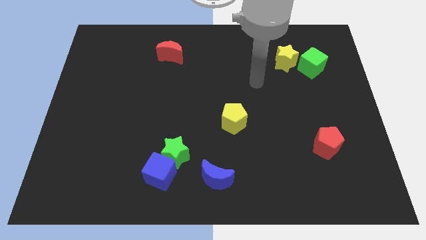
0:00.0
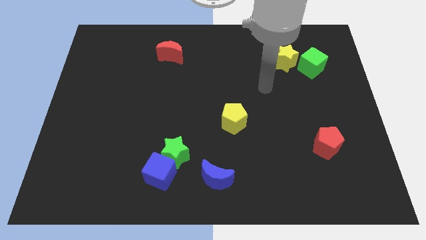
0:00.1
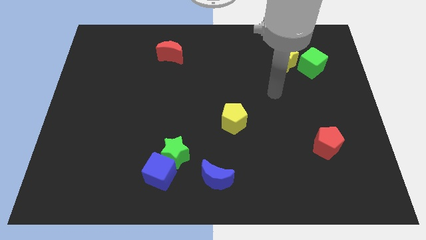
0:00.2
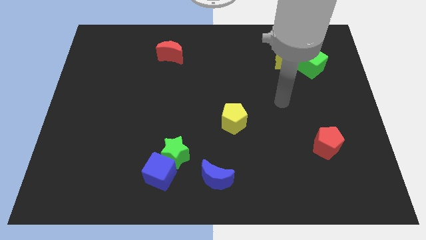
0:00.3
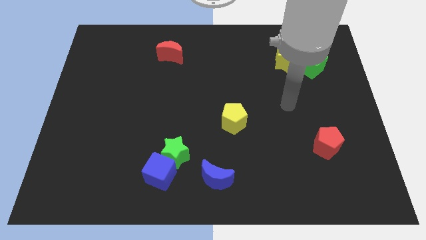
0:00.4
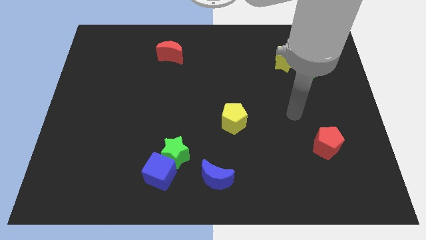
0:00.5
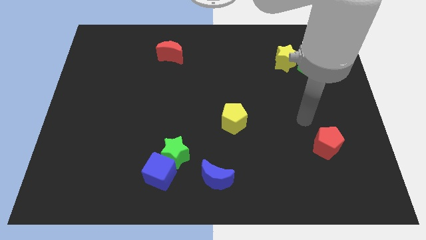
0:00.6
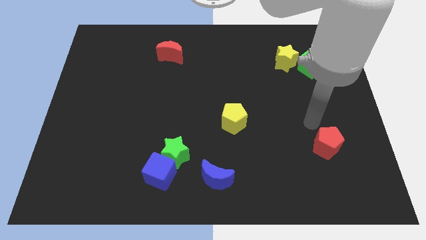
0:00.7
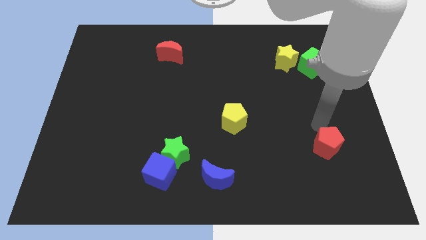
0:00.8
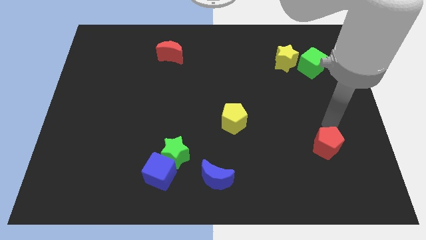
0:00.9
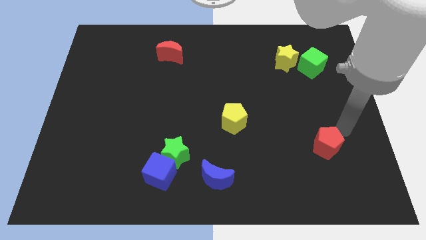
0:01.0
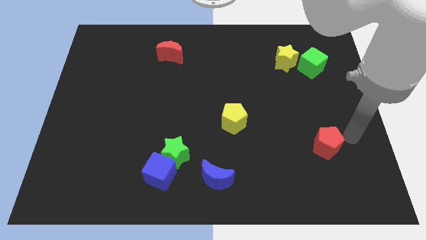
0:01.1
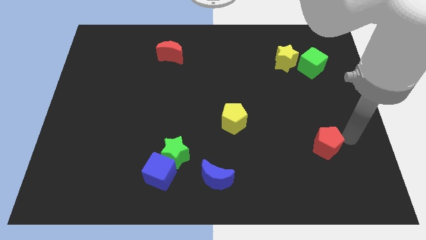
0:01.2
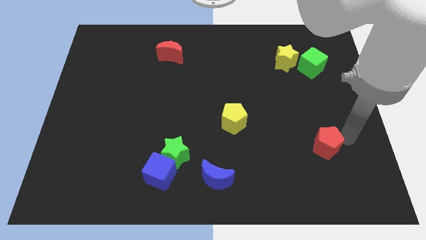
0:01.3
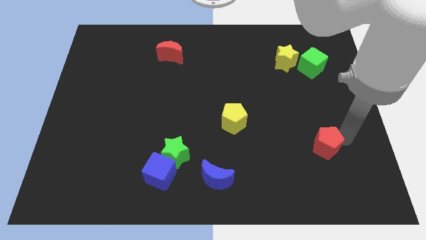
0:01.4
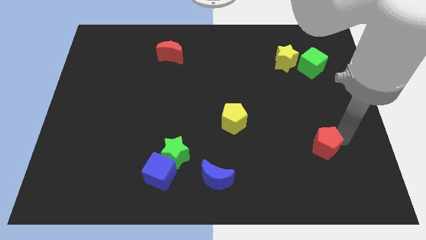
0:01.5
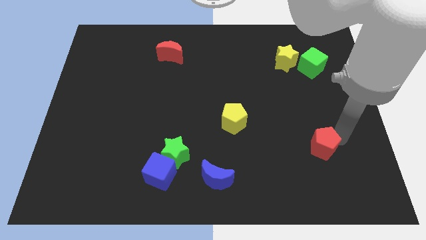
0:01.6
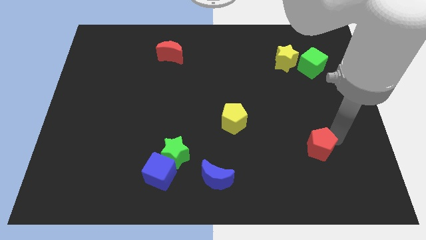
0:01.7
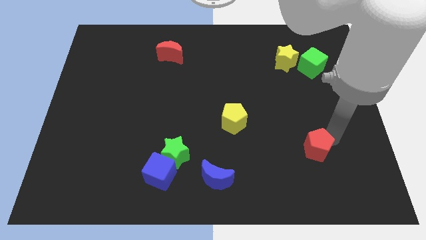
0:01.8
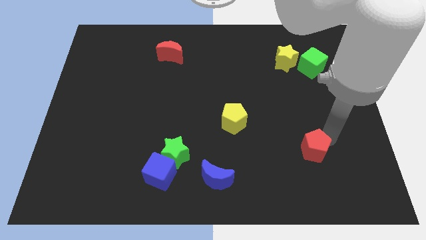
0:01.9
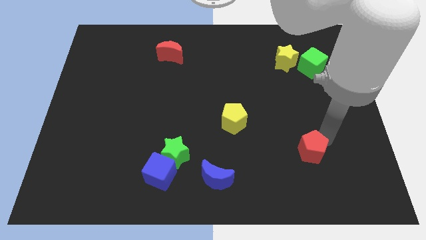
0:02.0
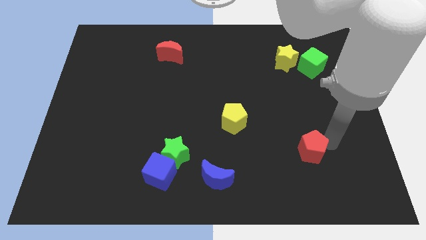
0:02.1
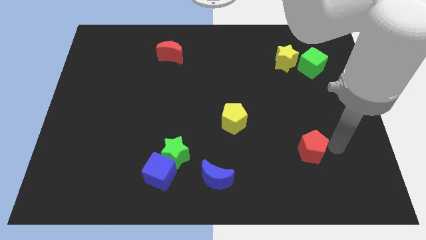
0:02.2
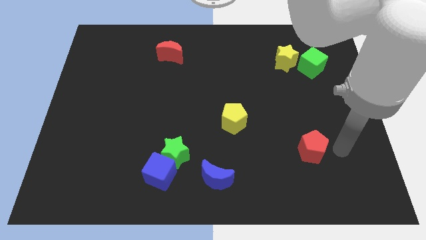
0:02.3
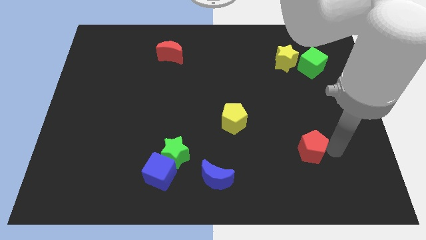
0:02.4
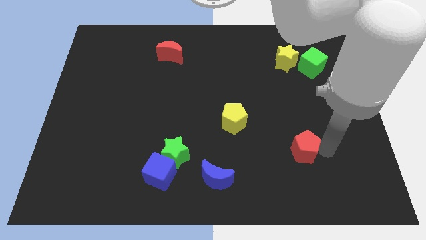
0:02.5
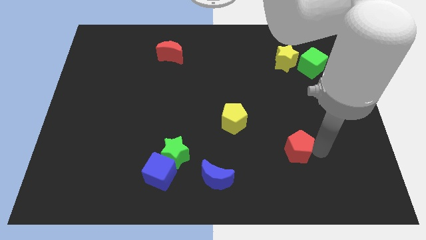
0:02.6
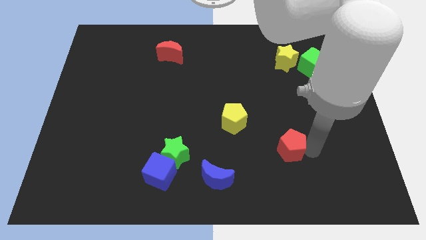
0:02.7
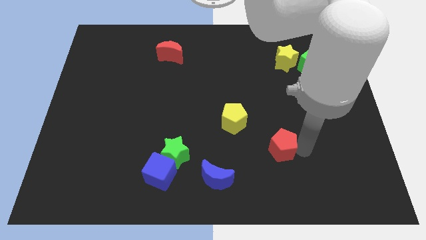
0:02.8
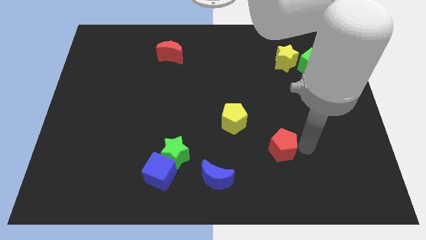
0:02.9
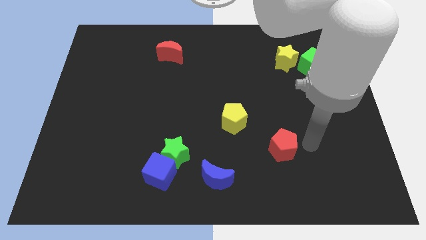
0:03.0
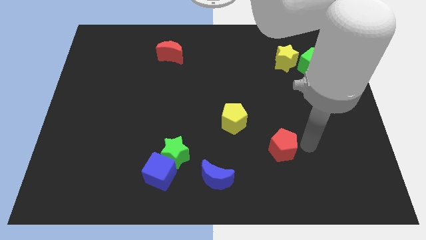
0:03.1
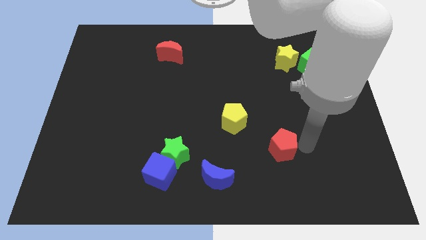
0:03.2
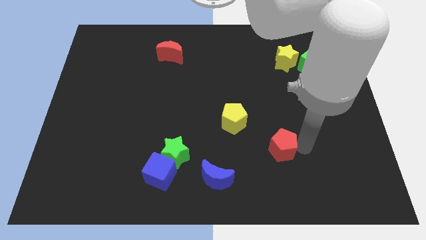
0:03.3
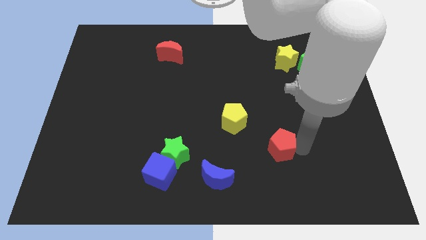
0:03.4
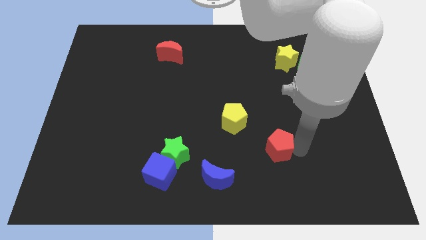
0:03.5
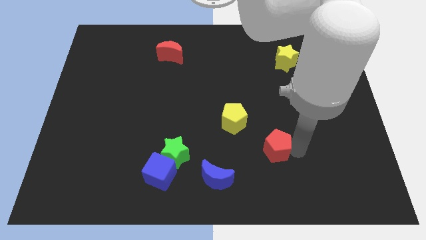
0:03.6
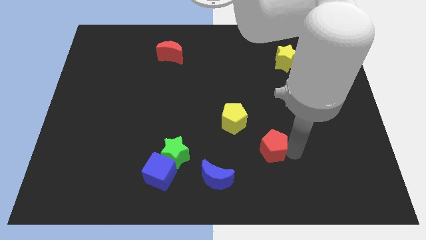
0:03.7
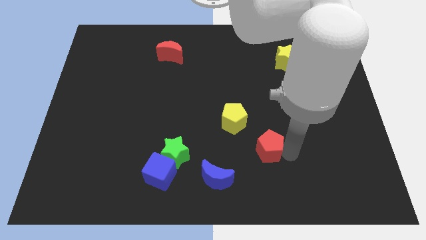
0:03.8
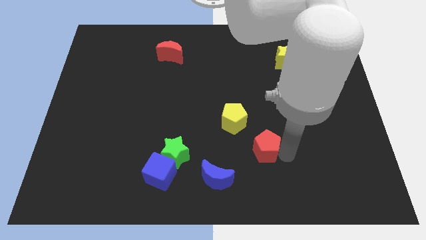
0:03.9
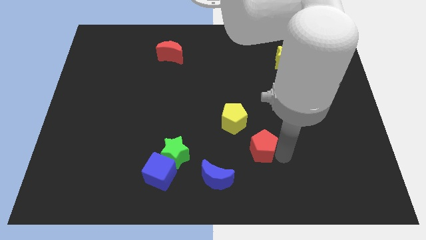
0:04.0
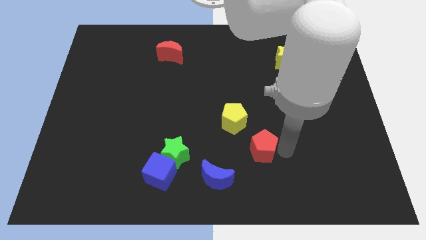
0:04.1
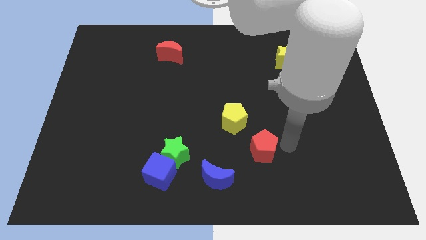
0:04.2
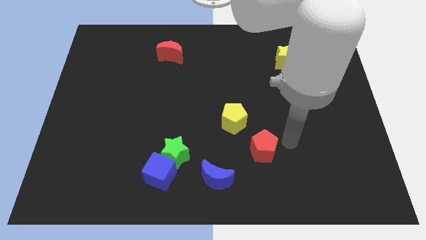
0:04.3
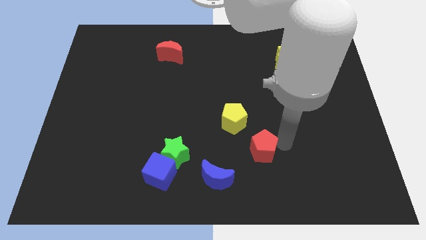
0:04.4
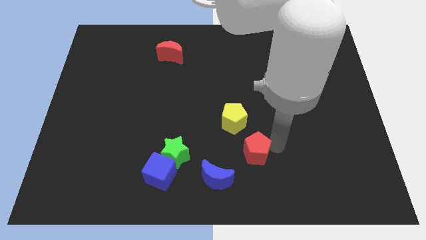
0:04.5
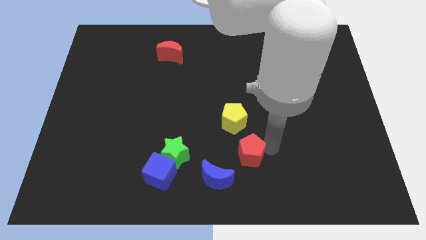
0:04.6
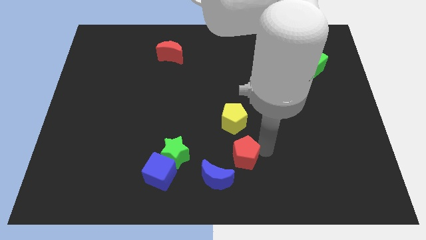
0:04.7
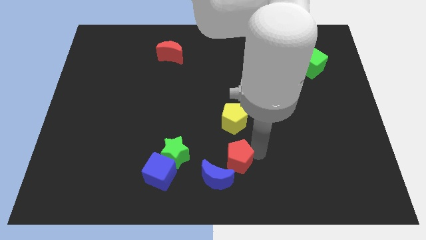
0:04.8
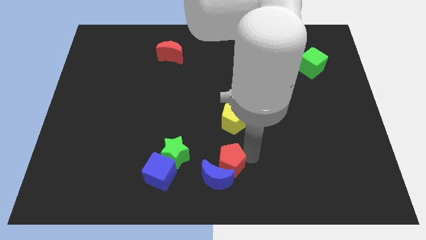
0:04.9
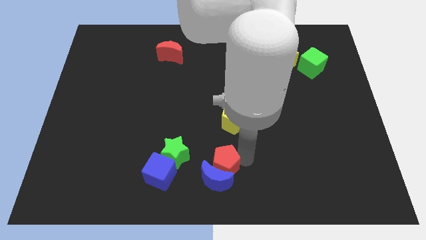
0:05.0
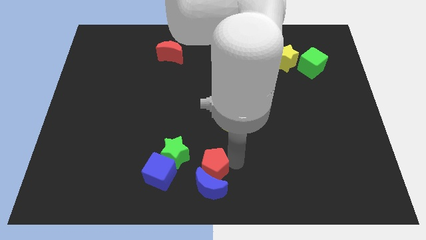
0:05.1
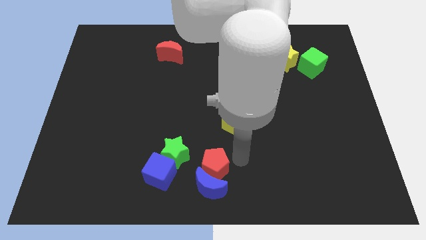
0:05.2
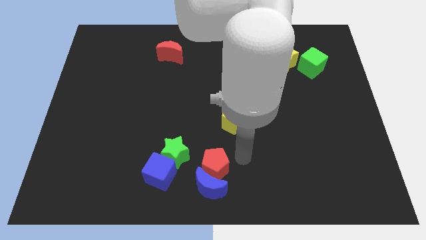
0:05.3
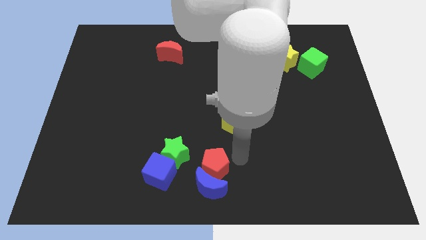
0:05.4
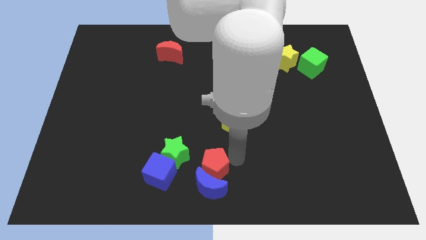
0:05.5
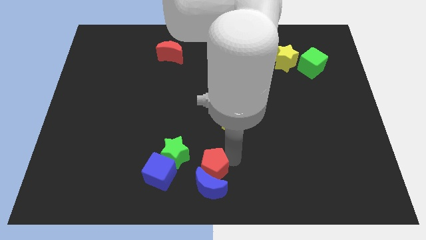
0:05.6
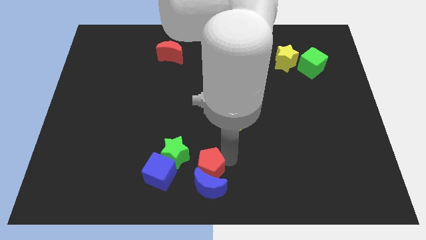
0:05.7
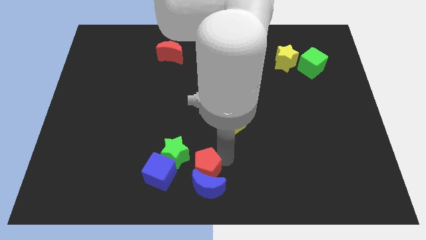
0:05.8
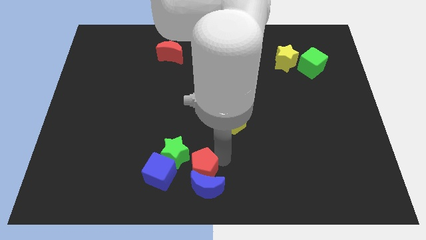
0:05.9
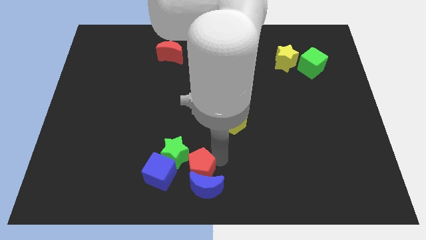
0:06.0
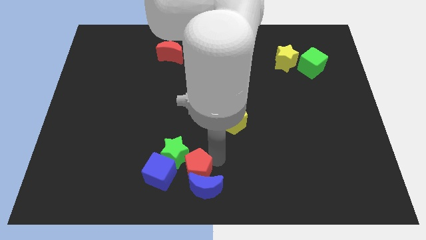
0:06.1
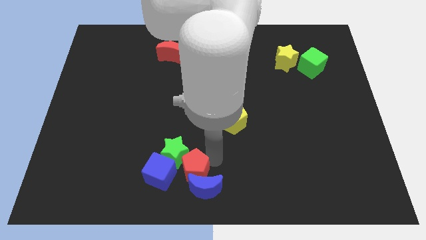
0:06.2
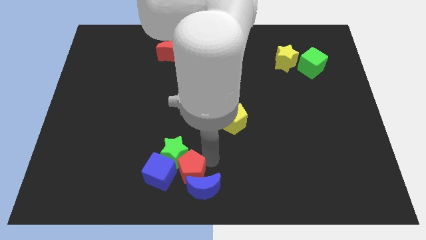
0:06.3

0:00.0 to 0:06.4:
move the red pentagon towards the blue cube

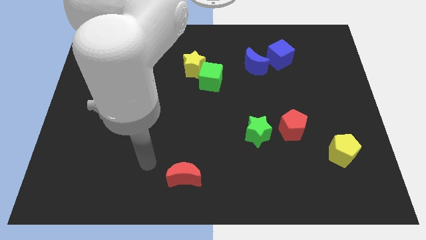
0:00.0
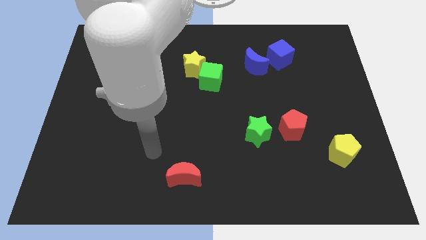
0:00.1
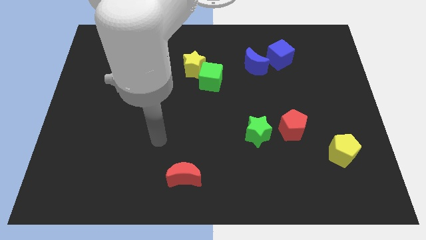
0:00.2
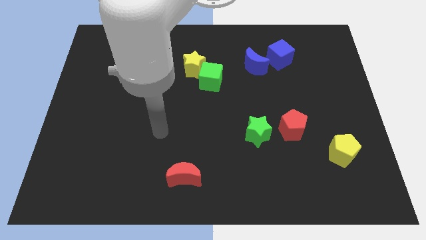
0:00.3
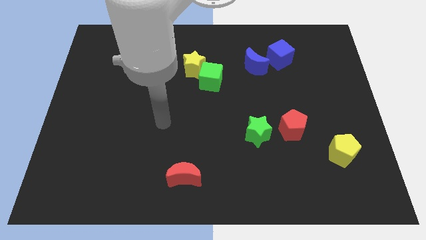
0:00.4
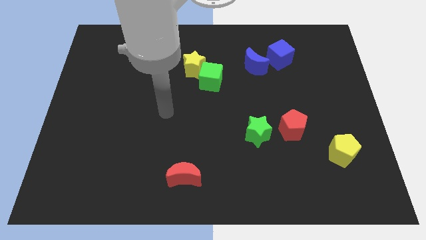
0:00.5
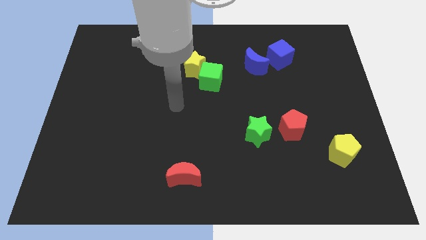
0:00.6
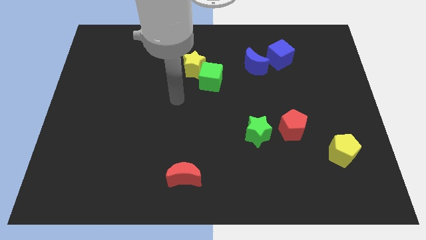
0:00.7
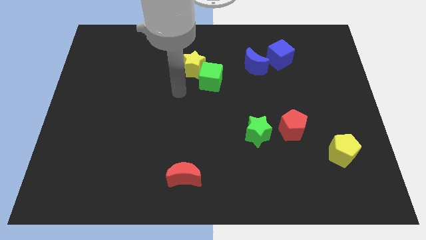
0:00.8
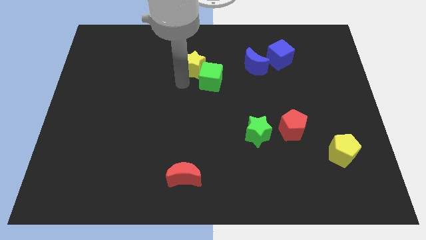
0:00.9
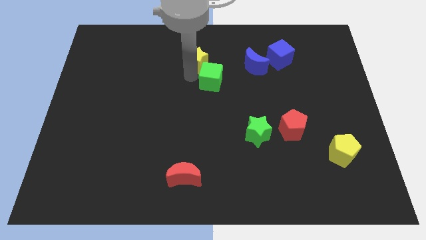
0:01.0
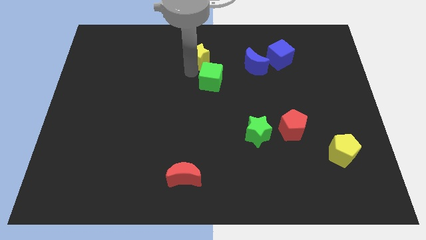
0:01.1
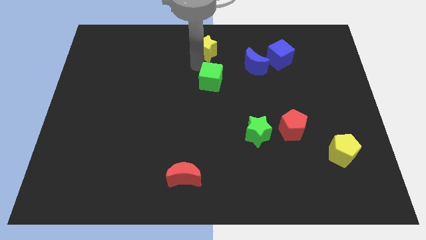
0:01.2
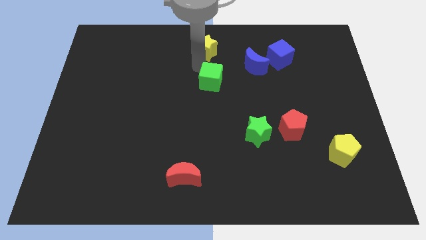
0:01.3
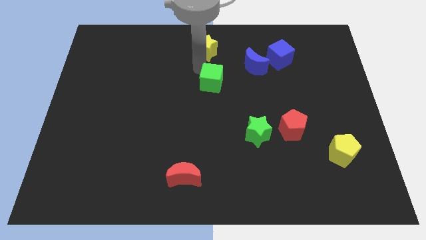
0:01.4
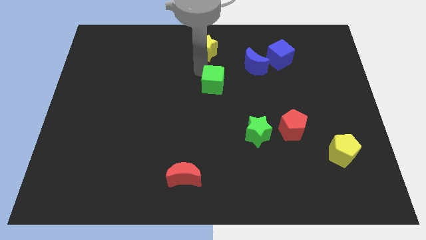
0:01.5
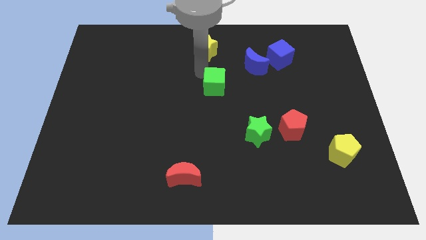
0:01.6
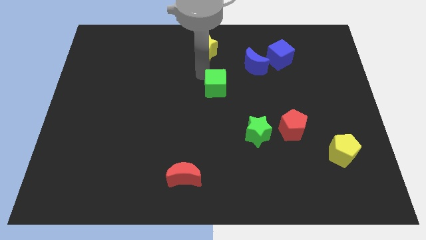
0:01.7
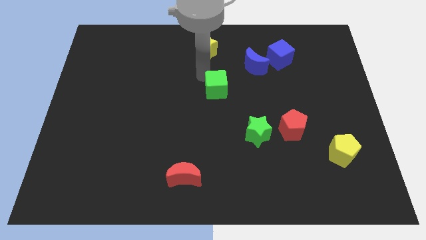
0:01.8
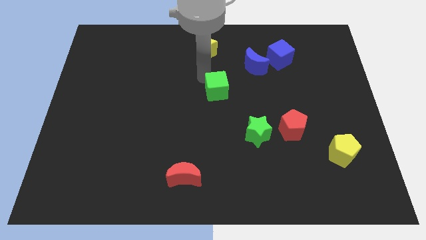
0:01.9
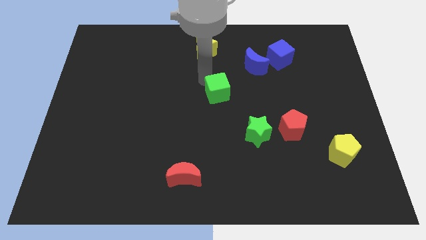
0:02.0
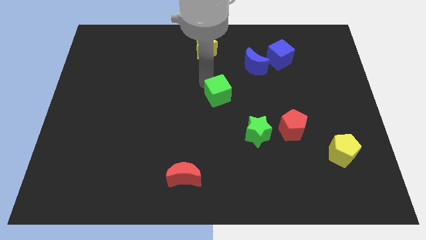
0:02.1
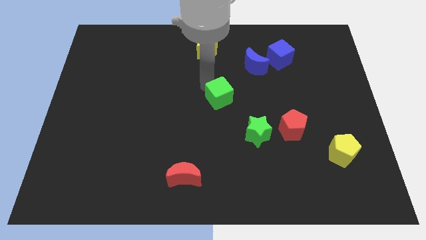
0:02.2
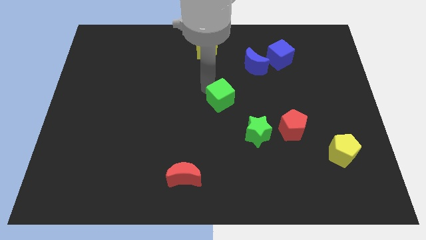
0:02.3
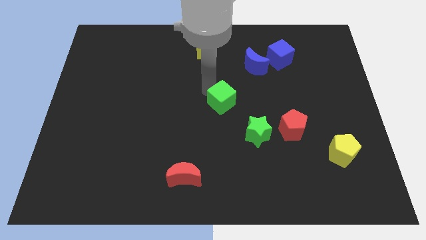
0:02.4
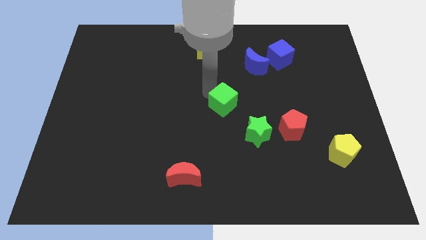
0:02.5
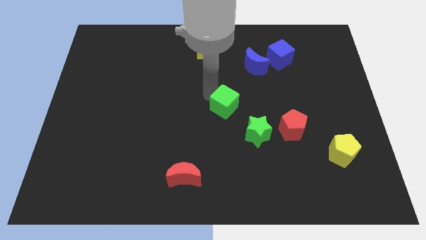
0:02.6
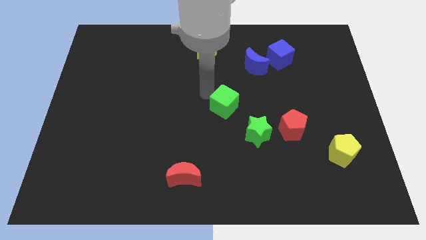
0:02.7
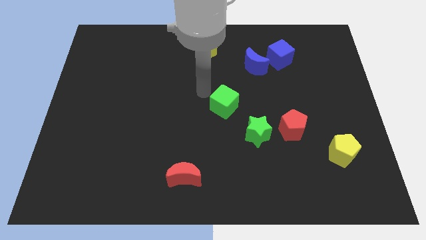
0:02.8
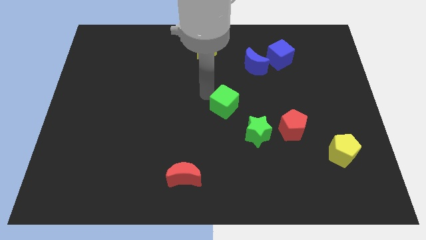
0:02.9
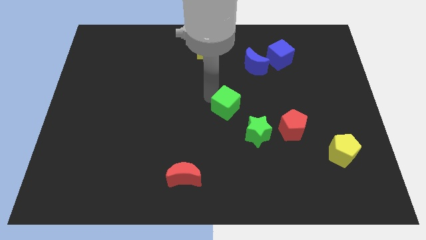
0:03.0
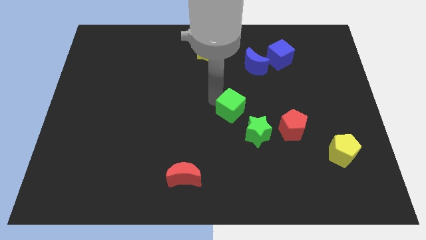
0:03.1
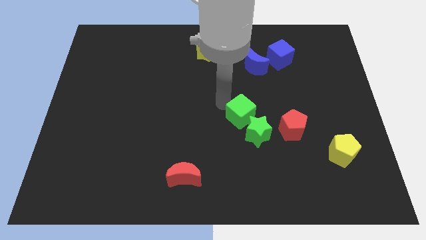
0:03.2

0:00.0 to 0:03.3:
slide the green cube to the green star
